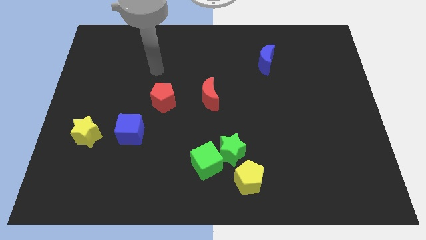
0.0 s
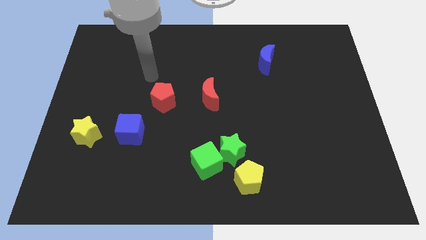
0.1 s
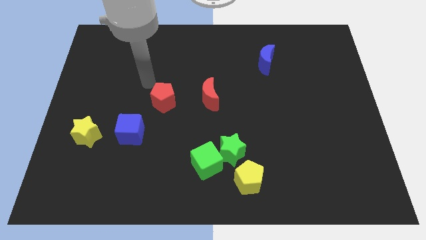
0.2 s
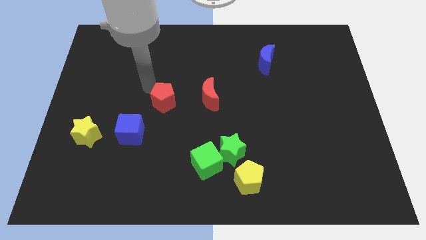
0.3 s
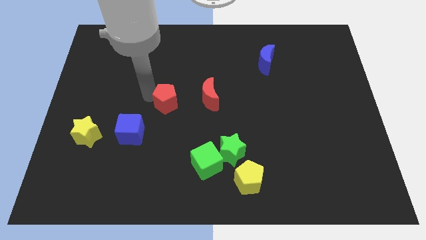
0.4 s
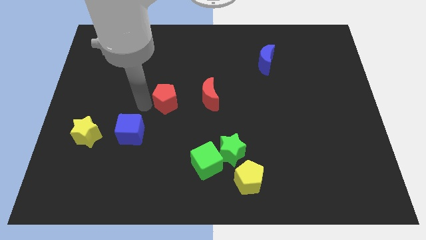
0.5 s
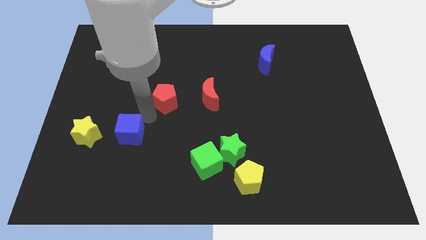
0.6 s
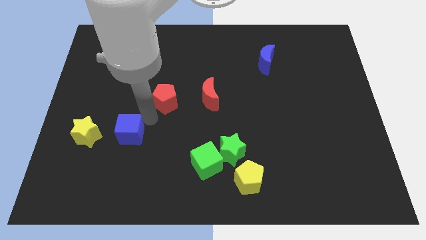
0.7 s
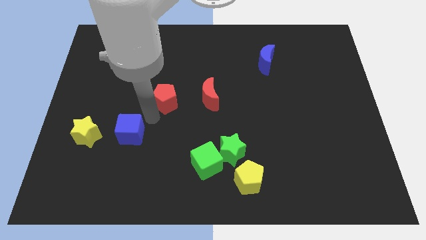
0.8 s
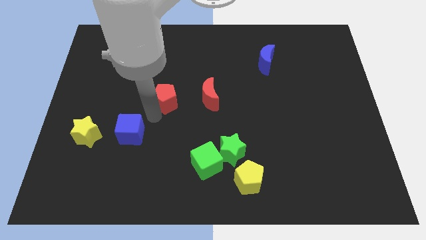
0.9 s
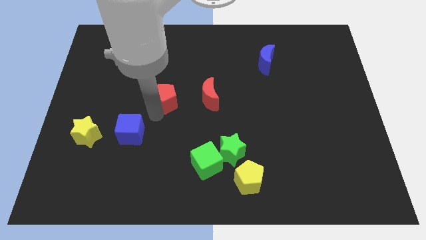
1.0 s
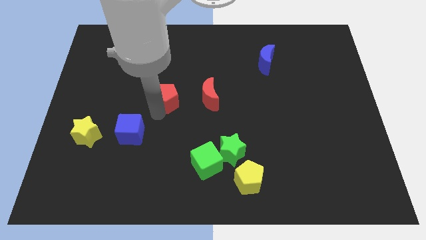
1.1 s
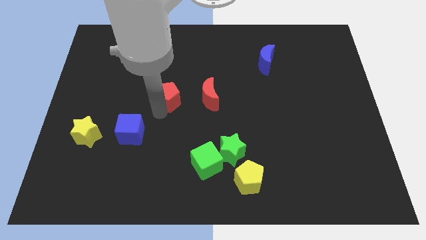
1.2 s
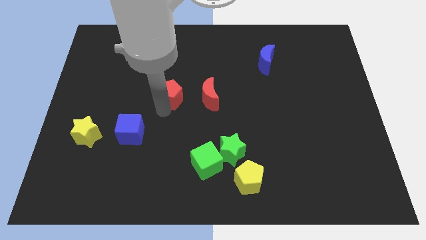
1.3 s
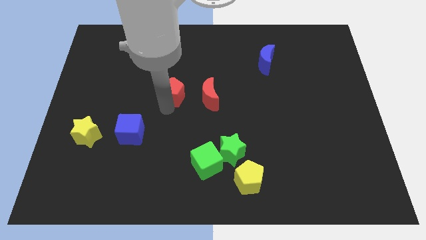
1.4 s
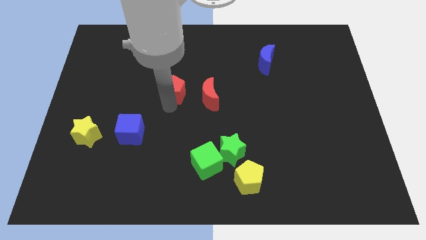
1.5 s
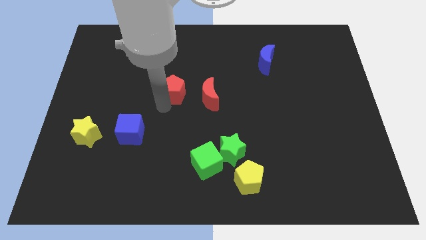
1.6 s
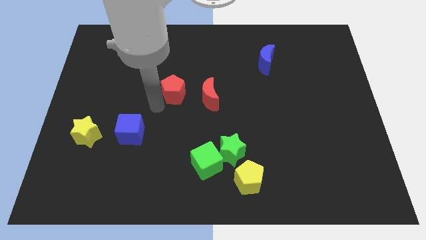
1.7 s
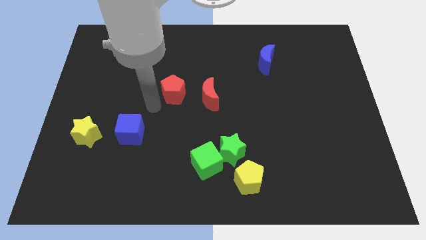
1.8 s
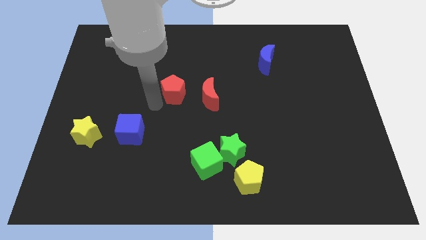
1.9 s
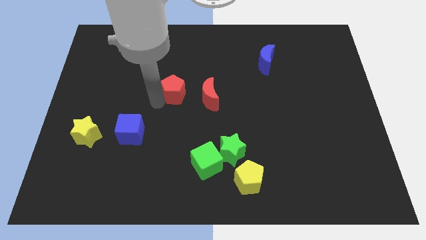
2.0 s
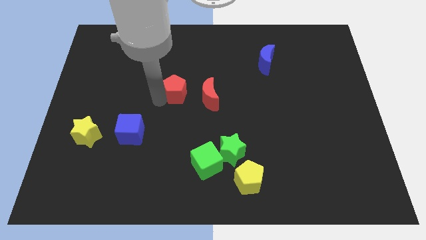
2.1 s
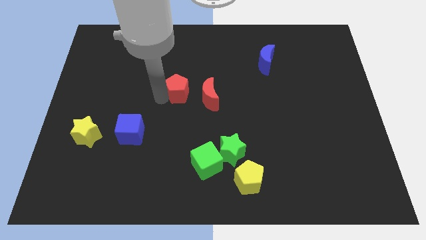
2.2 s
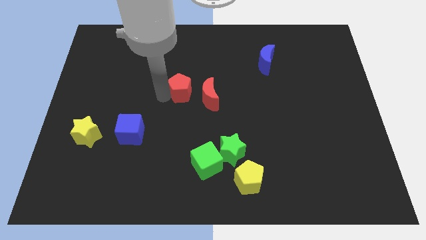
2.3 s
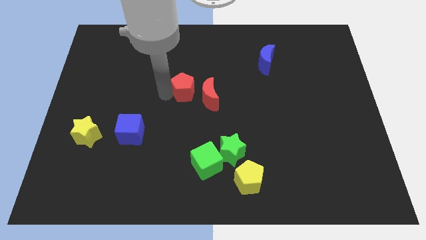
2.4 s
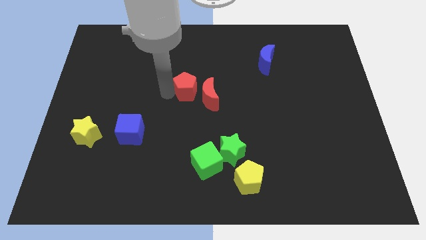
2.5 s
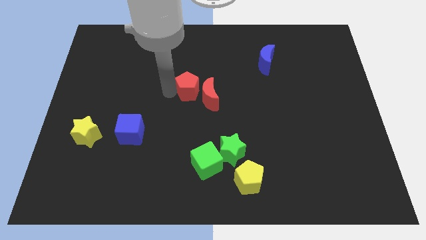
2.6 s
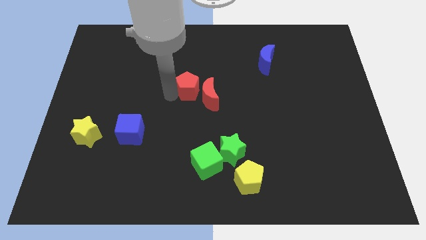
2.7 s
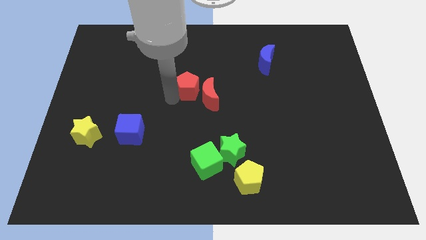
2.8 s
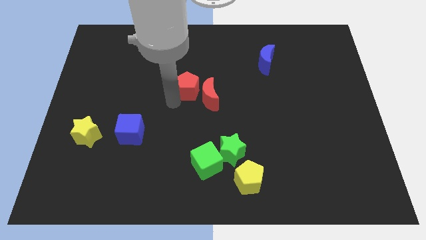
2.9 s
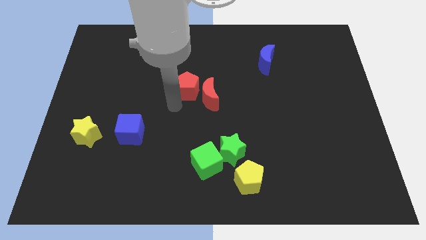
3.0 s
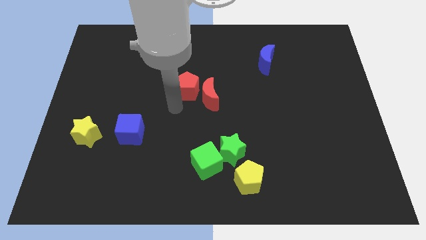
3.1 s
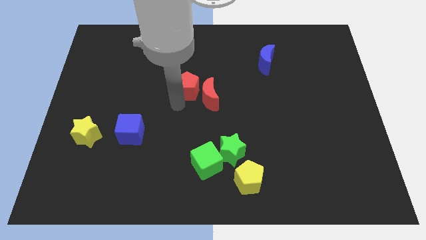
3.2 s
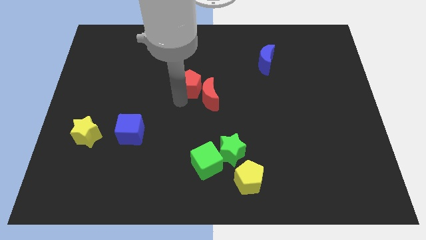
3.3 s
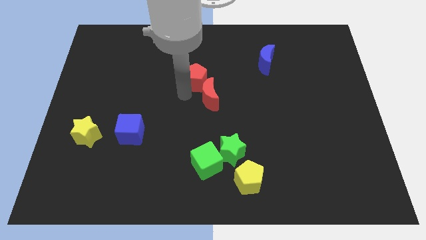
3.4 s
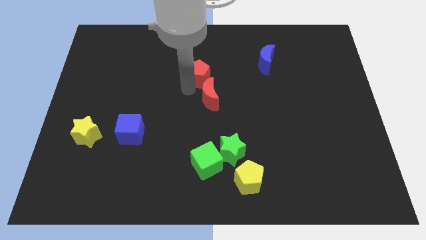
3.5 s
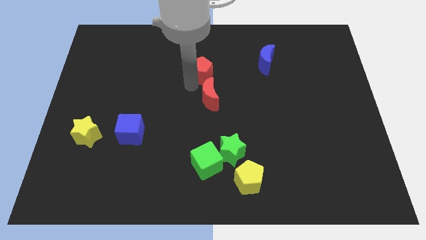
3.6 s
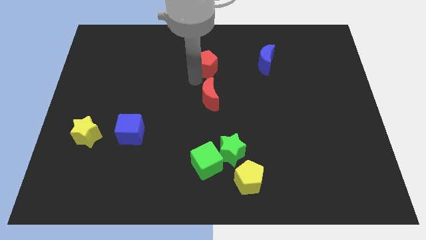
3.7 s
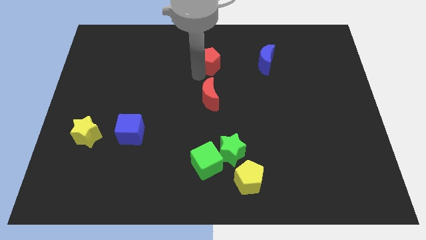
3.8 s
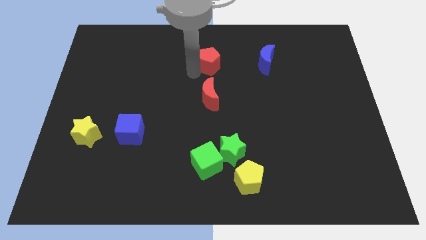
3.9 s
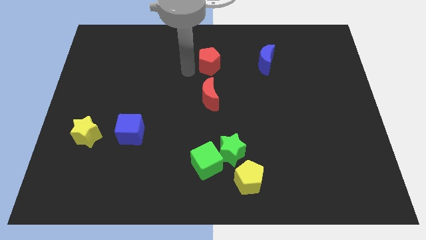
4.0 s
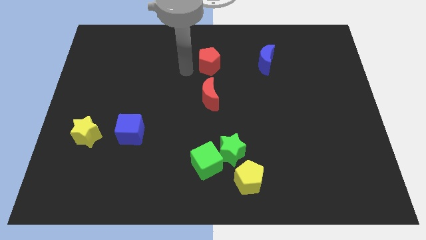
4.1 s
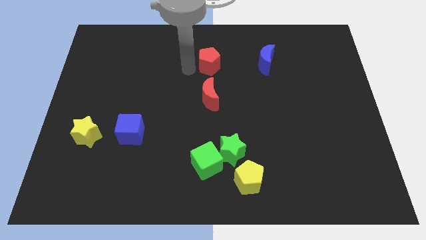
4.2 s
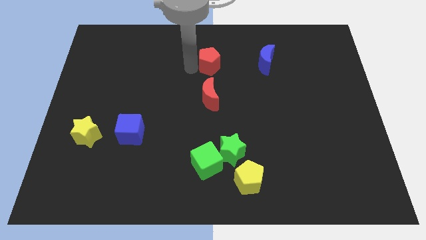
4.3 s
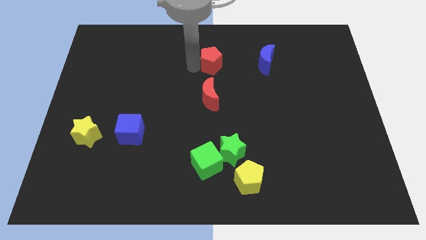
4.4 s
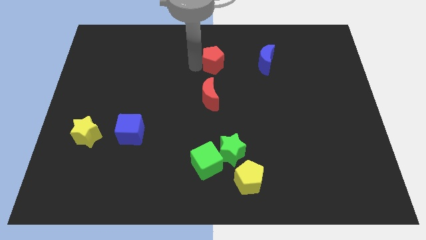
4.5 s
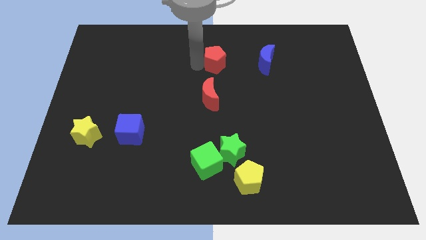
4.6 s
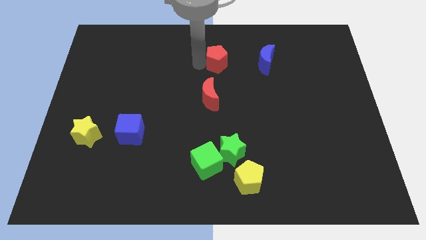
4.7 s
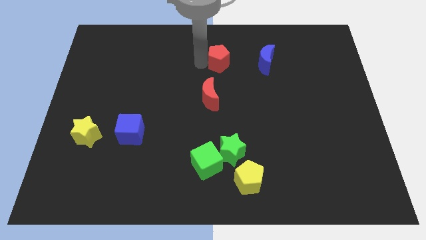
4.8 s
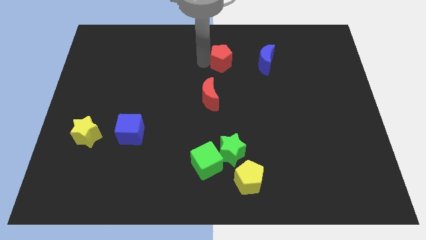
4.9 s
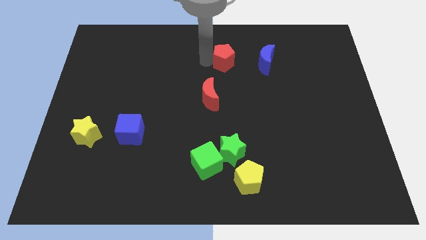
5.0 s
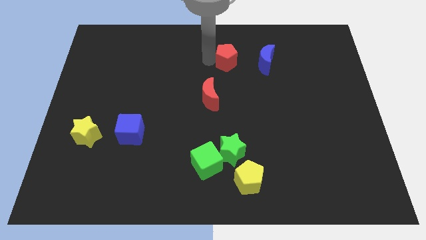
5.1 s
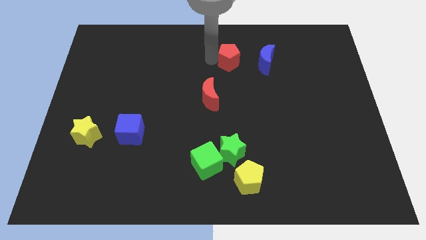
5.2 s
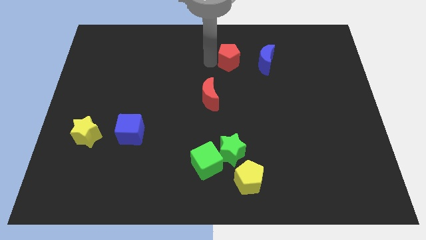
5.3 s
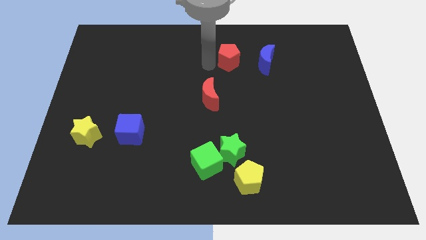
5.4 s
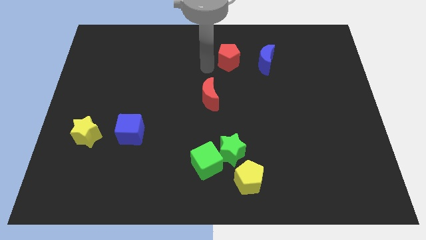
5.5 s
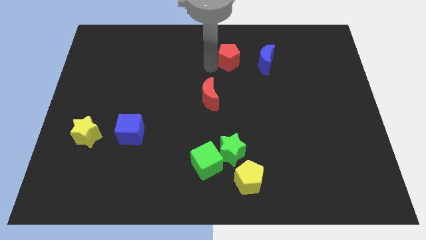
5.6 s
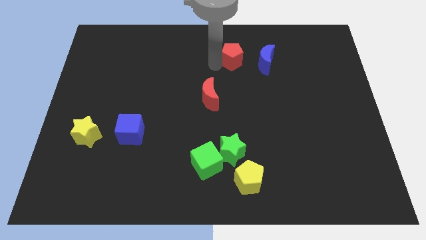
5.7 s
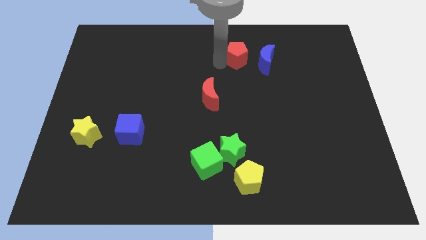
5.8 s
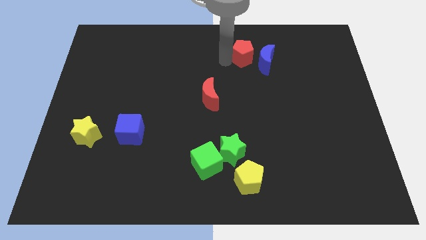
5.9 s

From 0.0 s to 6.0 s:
put the red pentagon next to the blue moon

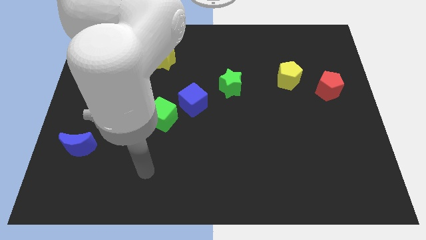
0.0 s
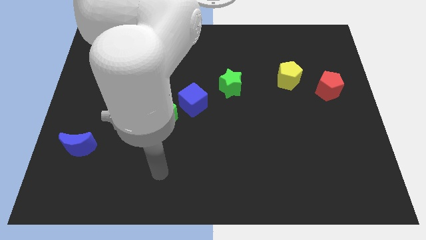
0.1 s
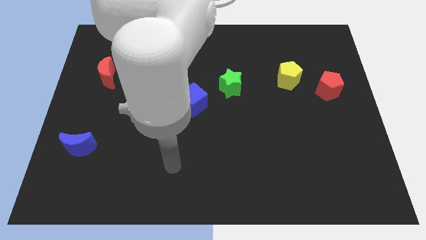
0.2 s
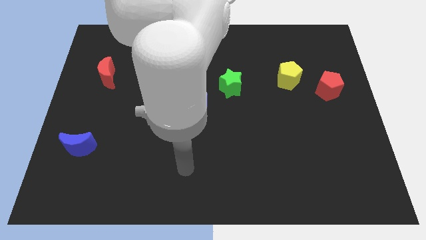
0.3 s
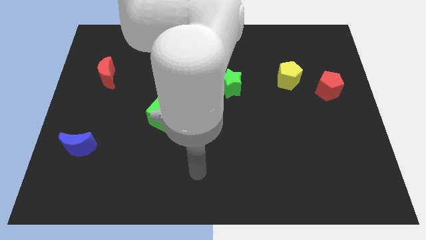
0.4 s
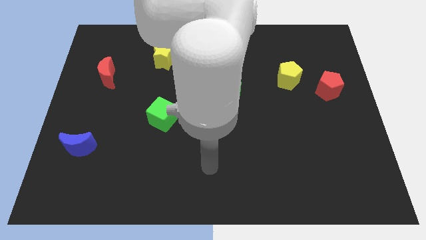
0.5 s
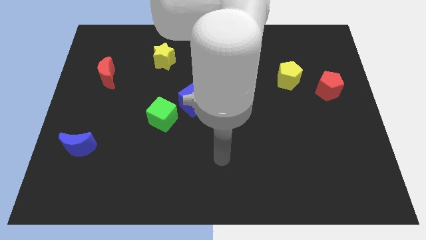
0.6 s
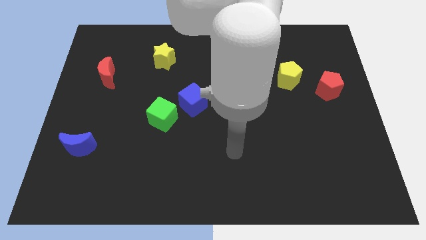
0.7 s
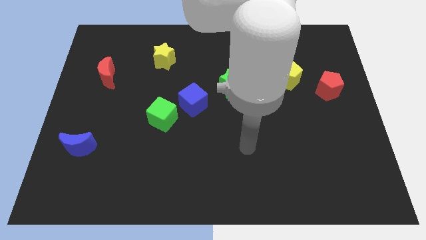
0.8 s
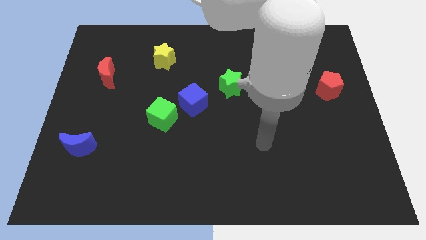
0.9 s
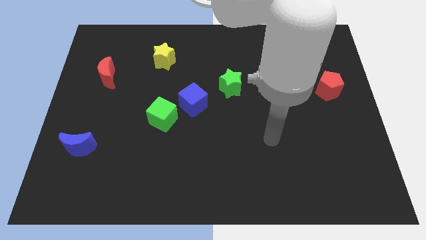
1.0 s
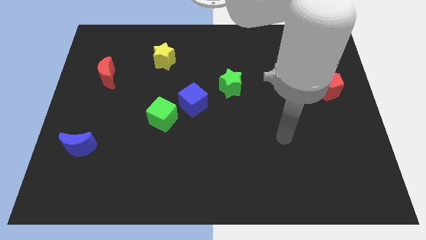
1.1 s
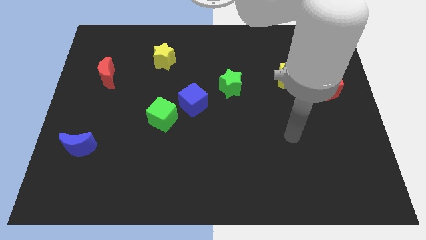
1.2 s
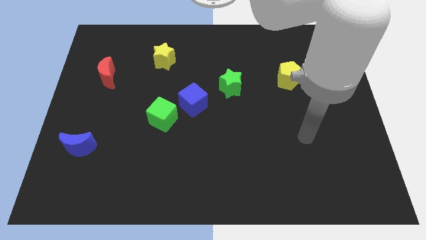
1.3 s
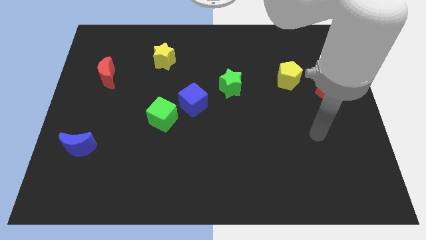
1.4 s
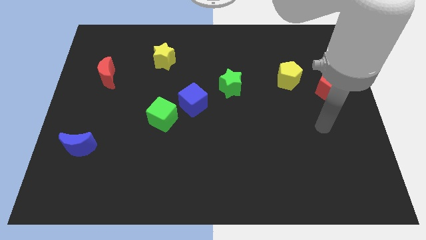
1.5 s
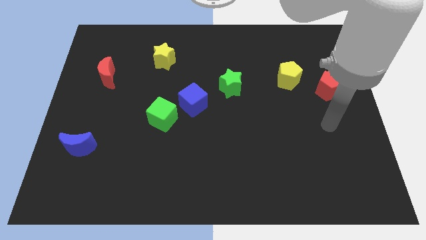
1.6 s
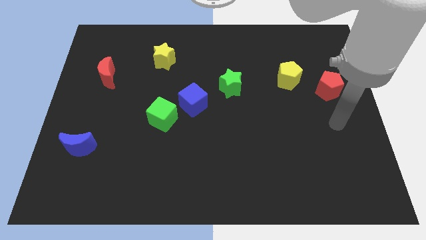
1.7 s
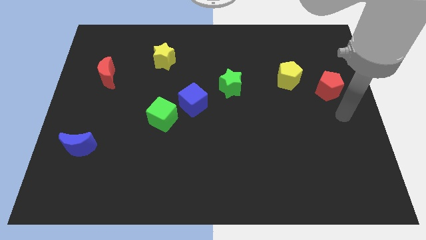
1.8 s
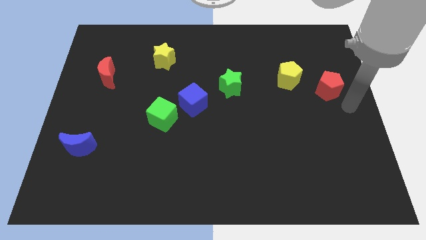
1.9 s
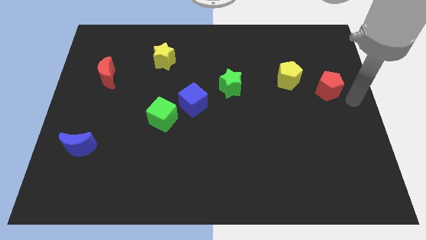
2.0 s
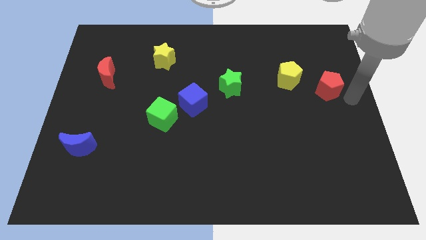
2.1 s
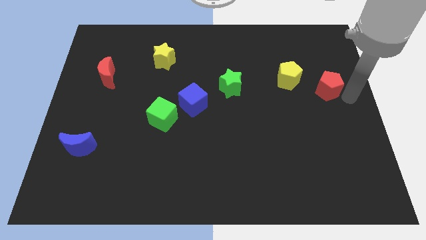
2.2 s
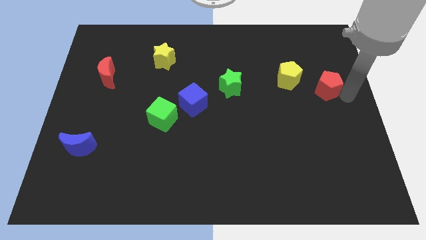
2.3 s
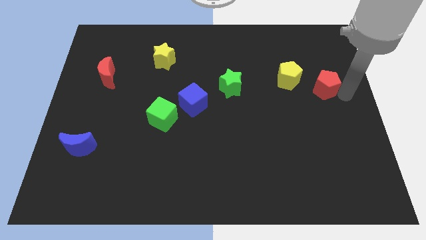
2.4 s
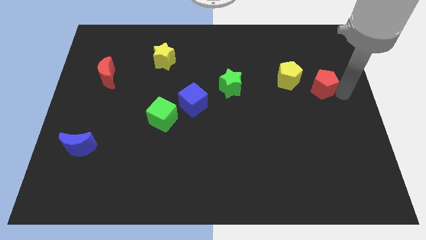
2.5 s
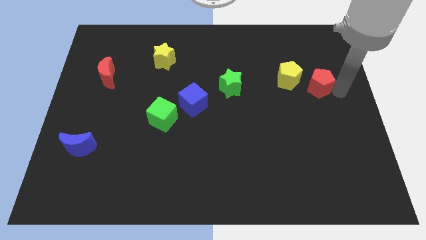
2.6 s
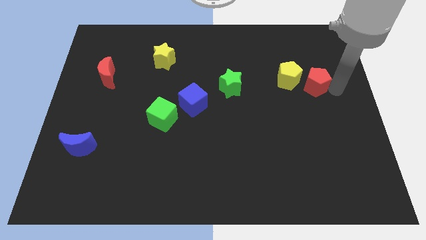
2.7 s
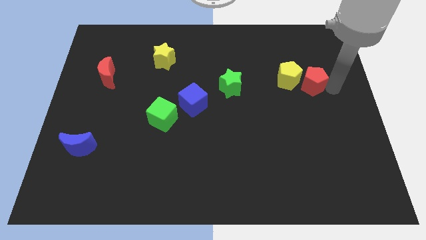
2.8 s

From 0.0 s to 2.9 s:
slide the red pentagon next to the yellow pentagon
